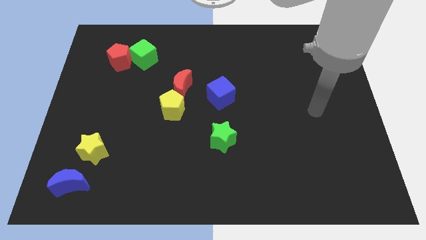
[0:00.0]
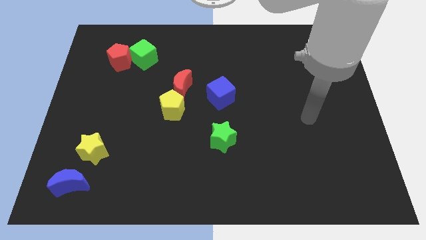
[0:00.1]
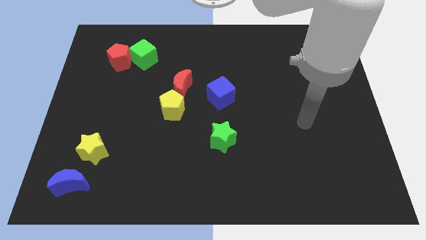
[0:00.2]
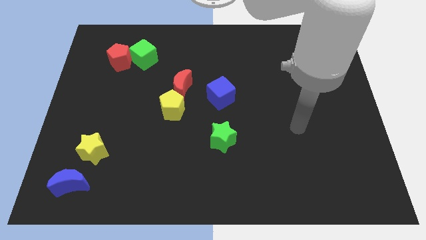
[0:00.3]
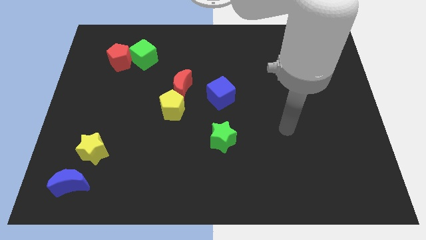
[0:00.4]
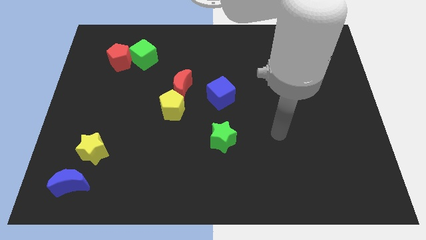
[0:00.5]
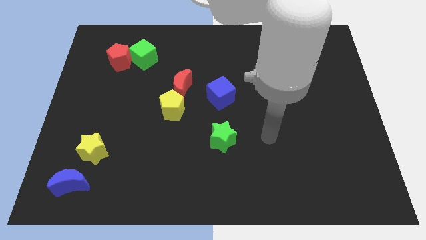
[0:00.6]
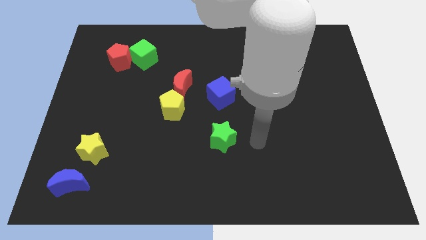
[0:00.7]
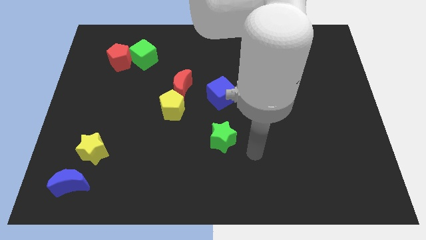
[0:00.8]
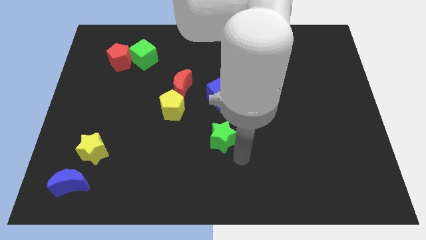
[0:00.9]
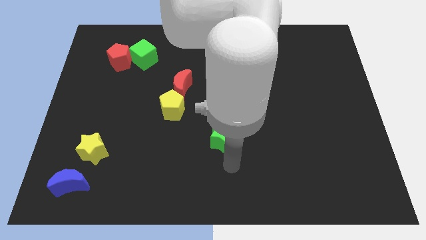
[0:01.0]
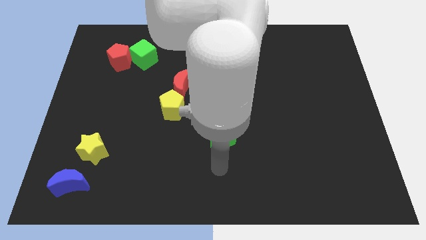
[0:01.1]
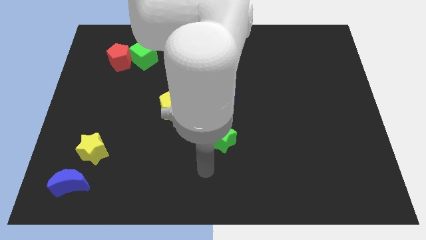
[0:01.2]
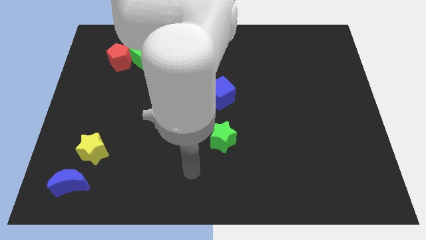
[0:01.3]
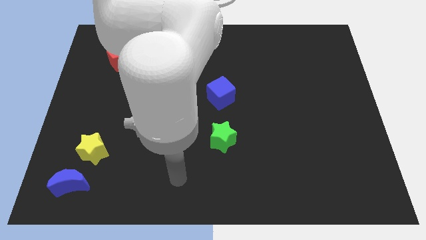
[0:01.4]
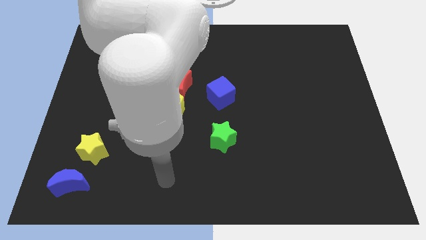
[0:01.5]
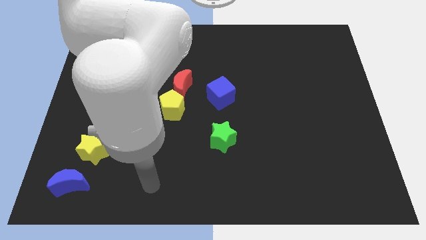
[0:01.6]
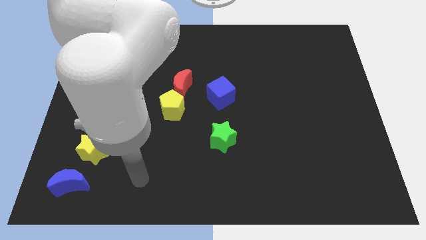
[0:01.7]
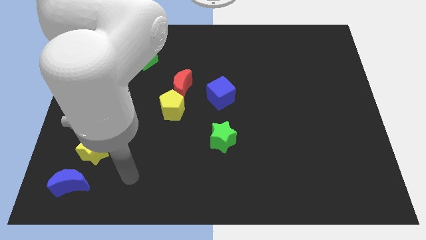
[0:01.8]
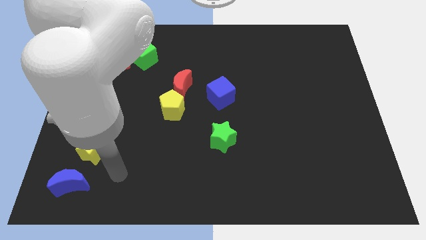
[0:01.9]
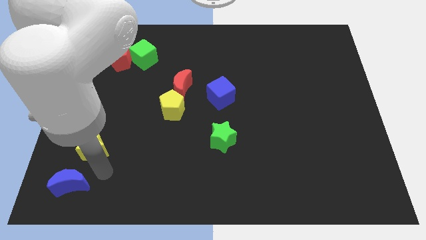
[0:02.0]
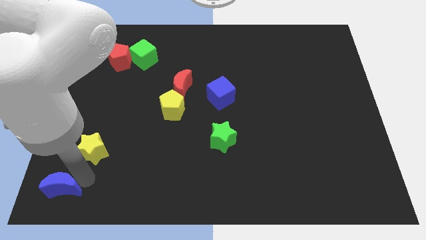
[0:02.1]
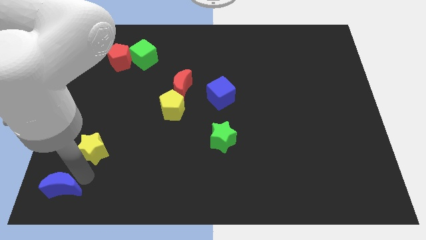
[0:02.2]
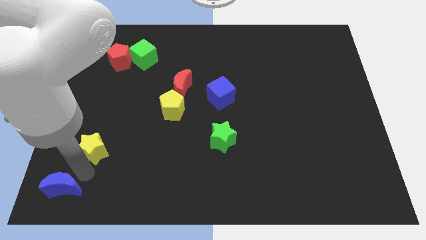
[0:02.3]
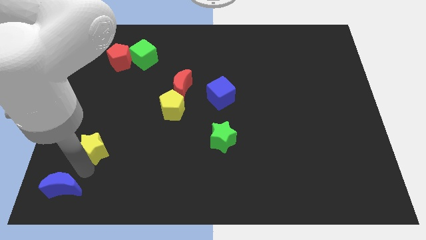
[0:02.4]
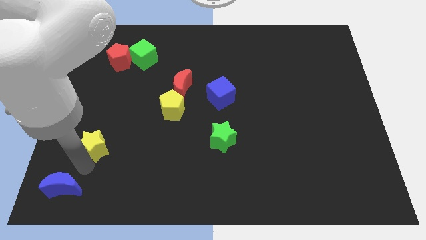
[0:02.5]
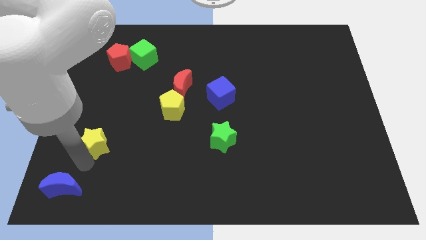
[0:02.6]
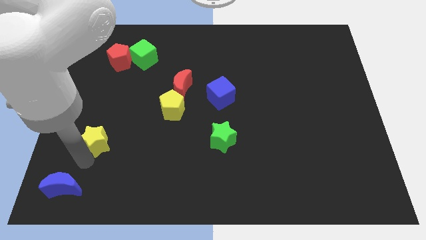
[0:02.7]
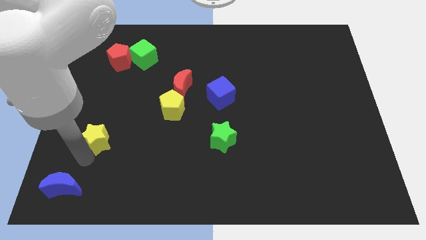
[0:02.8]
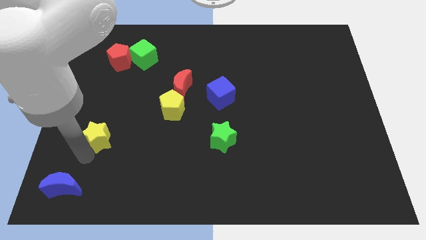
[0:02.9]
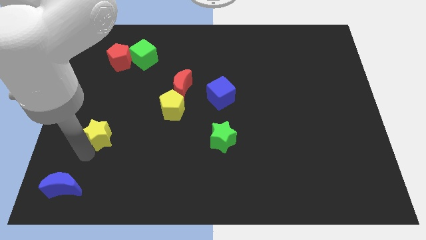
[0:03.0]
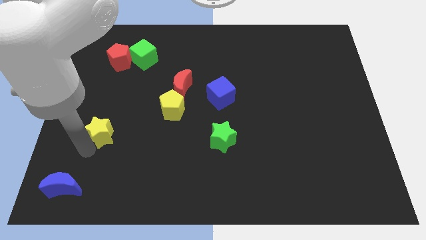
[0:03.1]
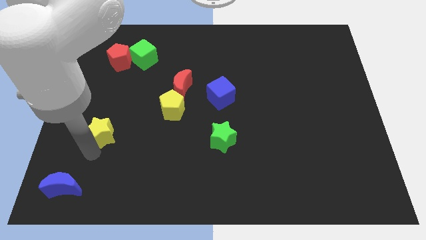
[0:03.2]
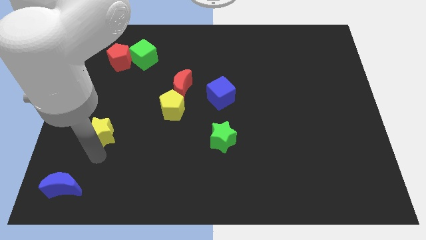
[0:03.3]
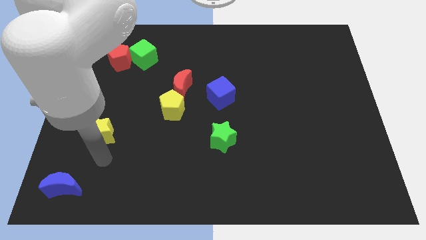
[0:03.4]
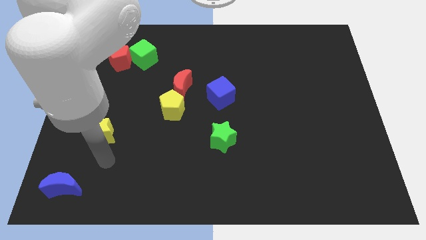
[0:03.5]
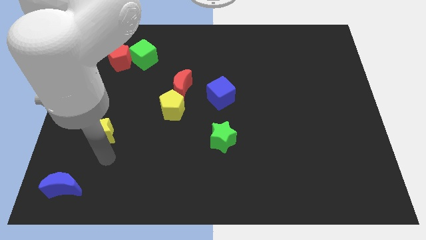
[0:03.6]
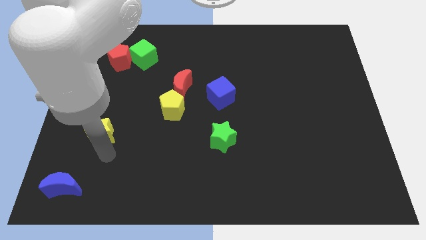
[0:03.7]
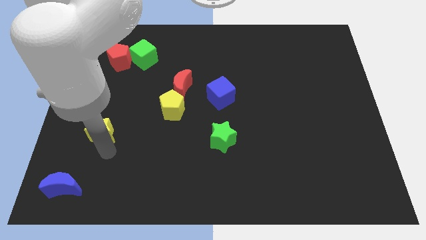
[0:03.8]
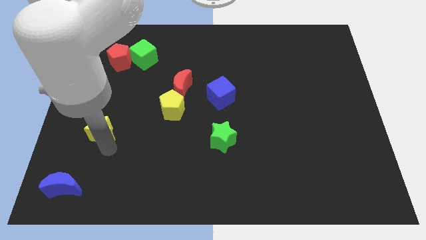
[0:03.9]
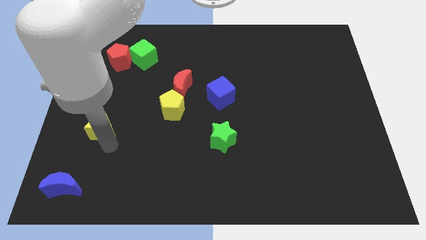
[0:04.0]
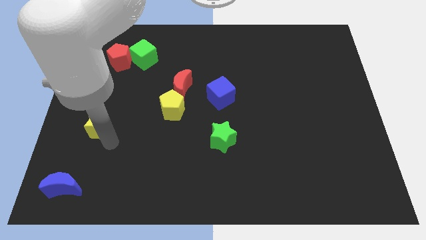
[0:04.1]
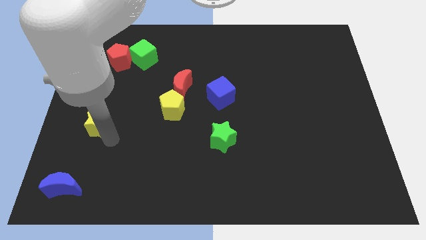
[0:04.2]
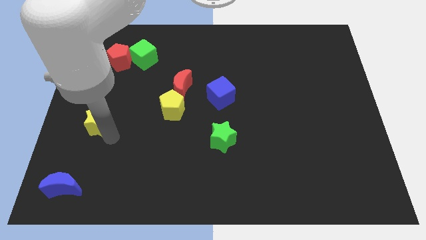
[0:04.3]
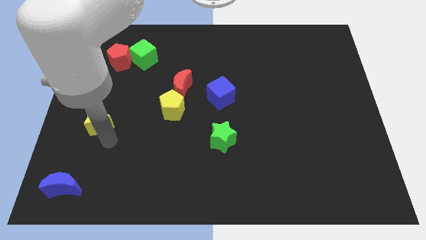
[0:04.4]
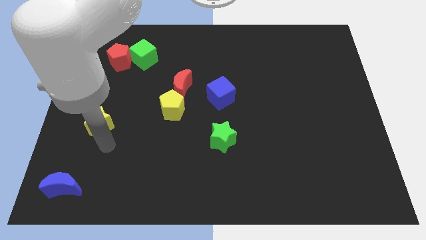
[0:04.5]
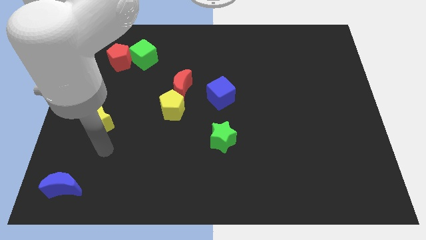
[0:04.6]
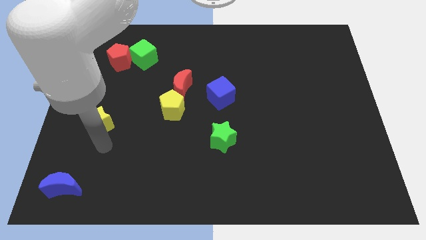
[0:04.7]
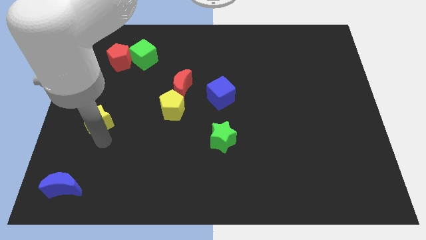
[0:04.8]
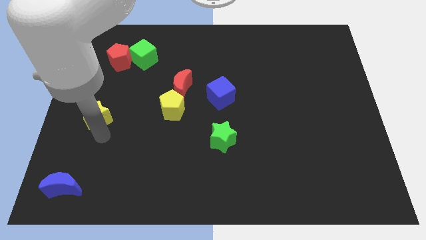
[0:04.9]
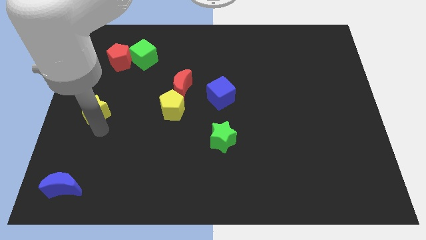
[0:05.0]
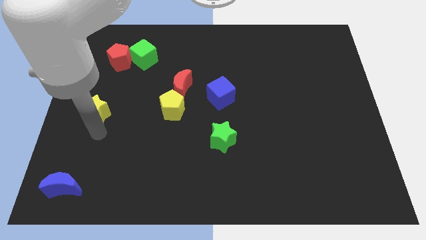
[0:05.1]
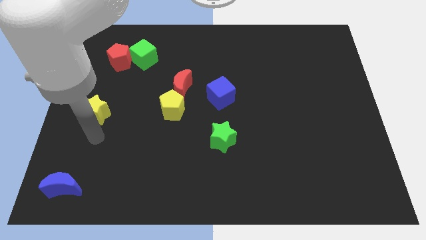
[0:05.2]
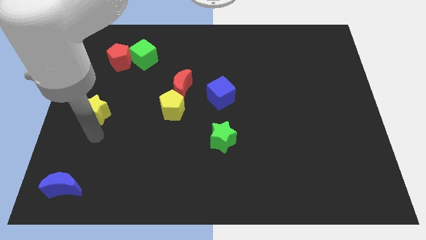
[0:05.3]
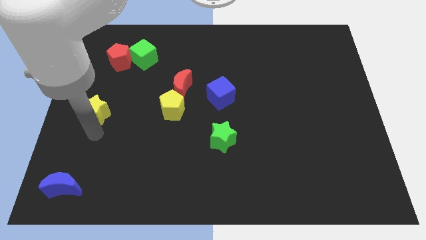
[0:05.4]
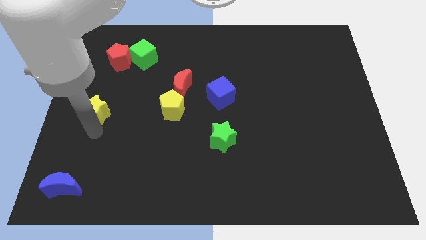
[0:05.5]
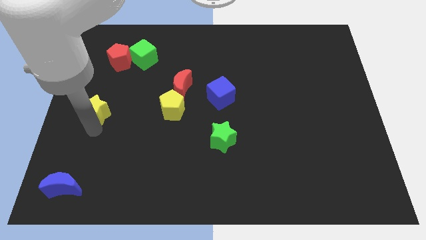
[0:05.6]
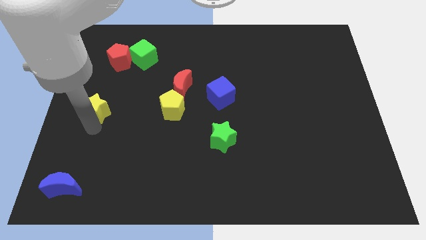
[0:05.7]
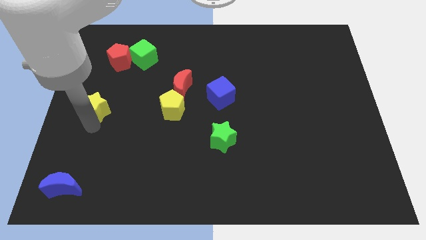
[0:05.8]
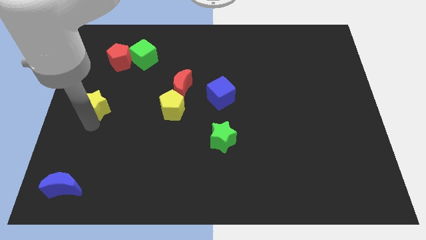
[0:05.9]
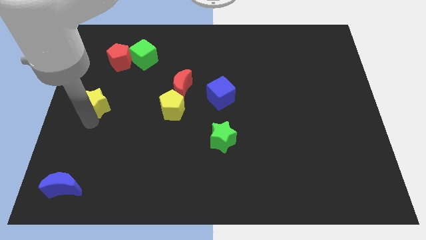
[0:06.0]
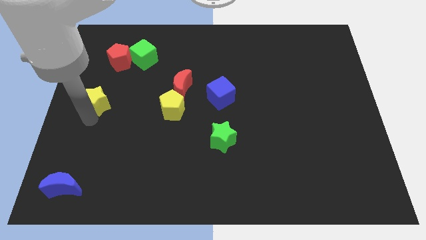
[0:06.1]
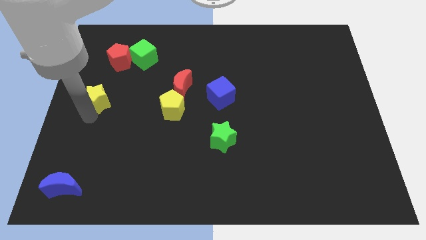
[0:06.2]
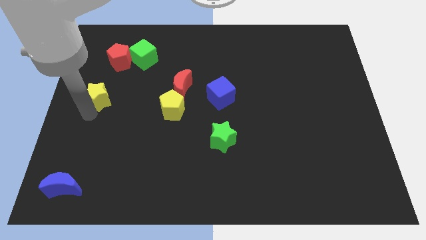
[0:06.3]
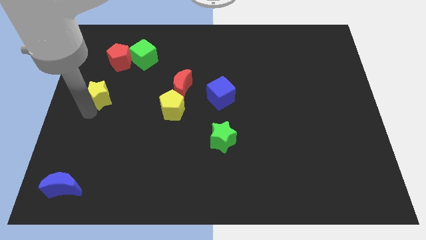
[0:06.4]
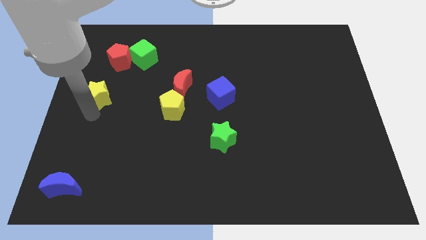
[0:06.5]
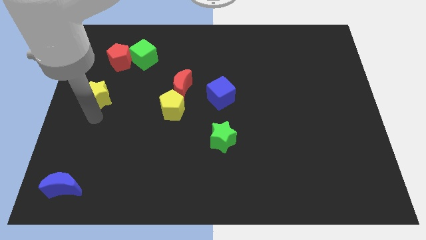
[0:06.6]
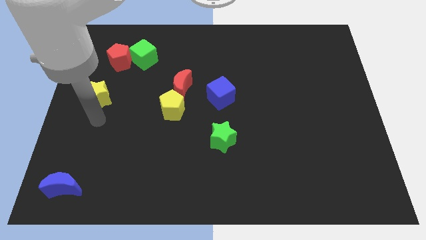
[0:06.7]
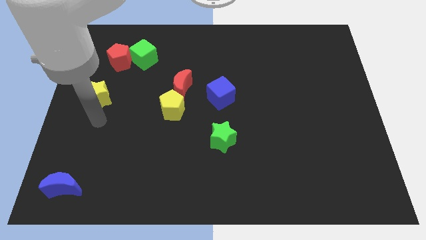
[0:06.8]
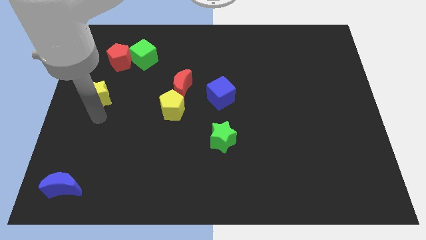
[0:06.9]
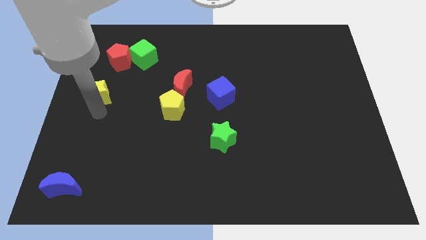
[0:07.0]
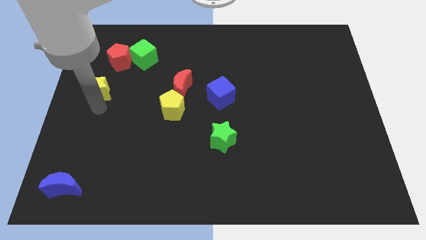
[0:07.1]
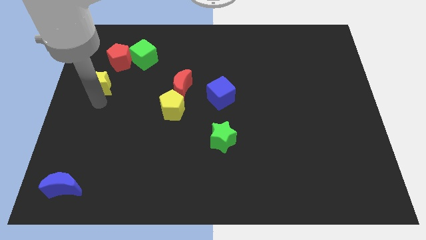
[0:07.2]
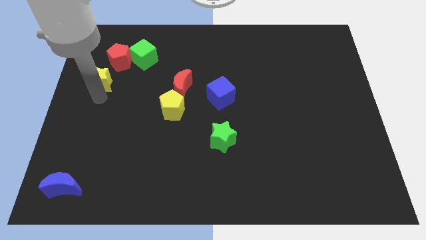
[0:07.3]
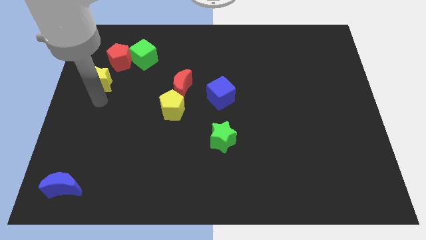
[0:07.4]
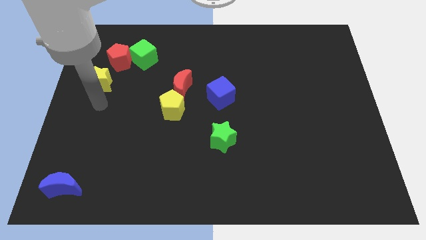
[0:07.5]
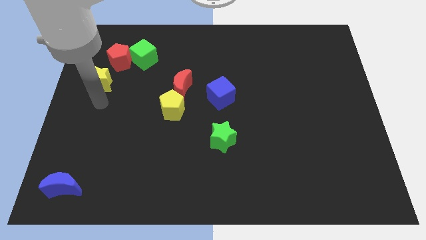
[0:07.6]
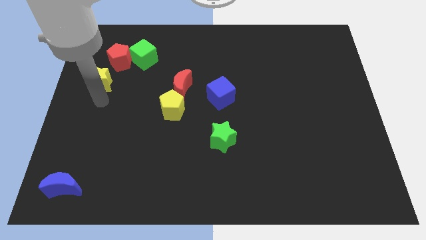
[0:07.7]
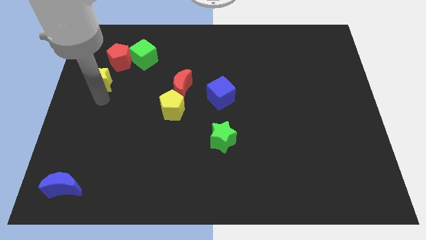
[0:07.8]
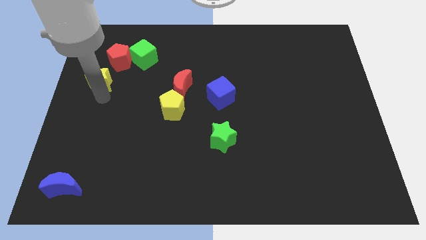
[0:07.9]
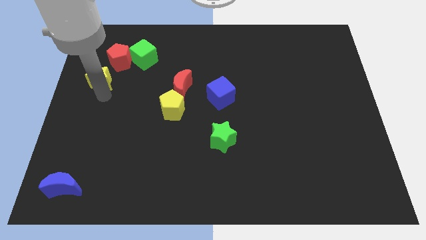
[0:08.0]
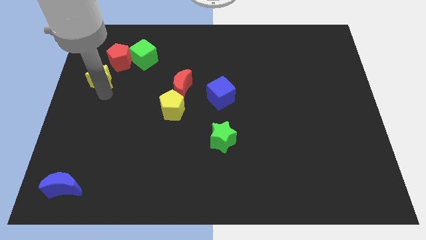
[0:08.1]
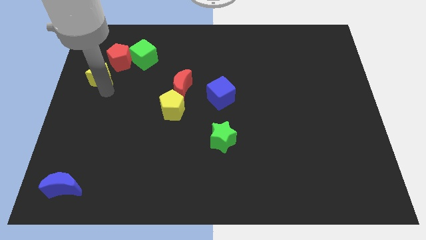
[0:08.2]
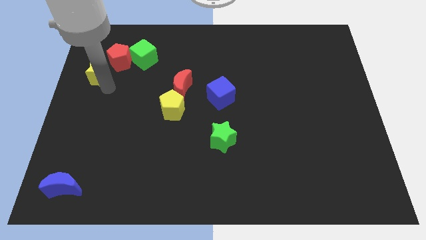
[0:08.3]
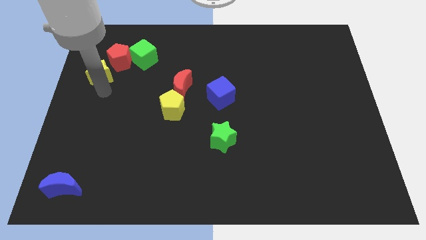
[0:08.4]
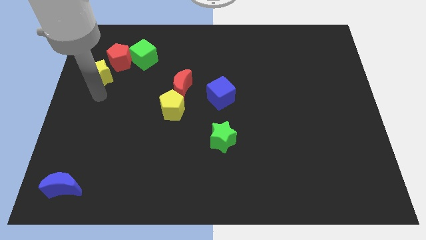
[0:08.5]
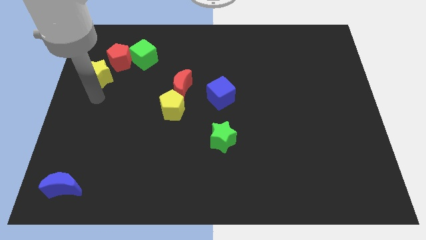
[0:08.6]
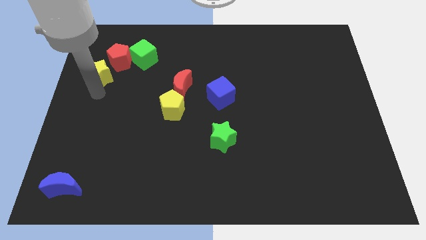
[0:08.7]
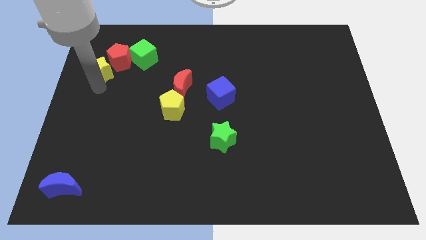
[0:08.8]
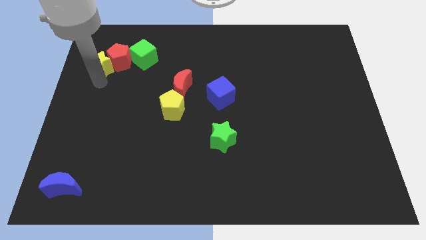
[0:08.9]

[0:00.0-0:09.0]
move the yellow star to the left side of the green cube
